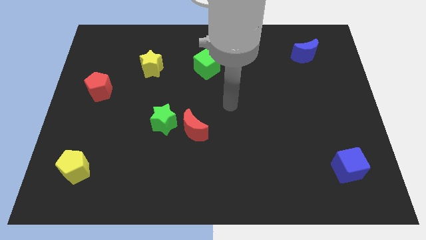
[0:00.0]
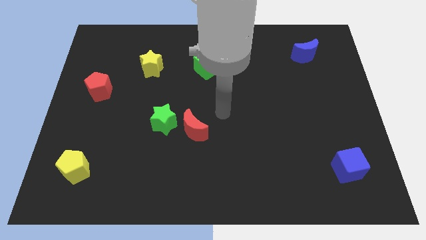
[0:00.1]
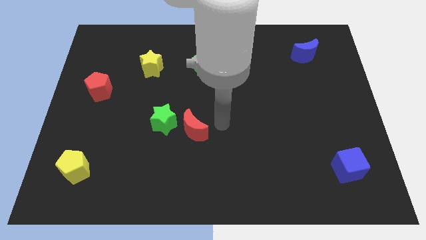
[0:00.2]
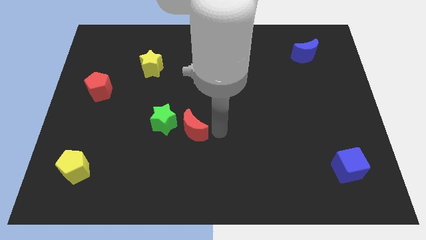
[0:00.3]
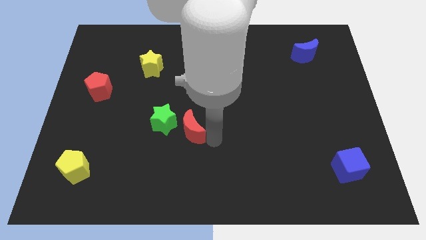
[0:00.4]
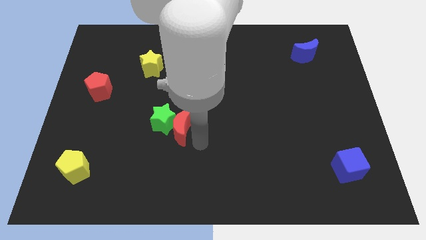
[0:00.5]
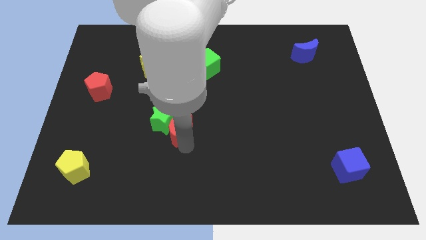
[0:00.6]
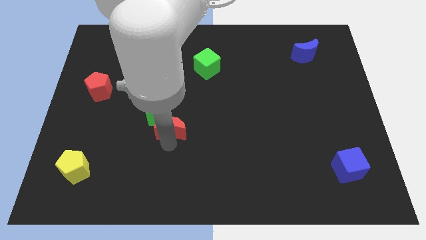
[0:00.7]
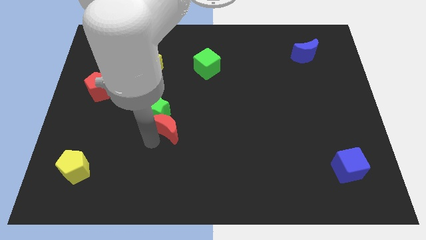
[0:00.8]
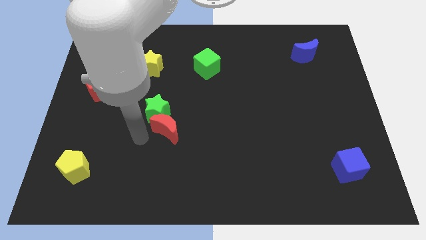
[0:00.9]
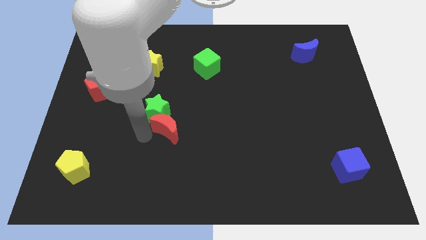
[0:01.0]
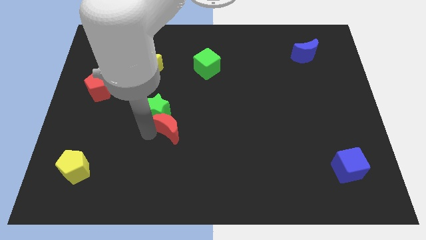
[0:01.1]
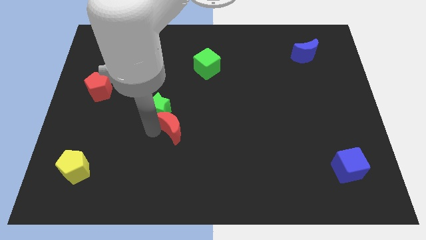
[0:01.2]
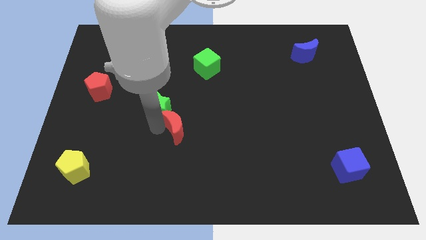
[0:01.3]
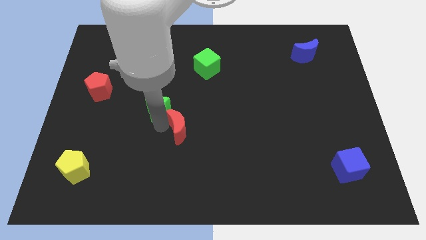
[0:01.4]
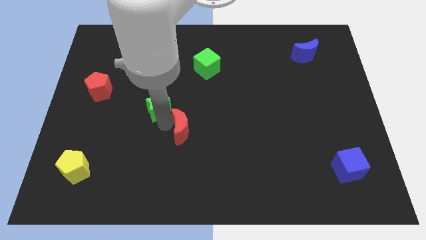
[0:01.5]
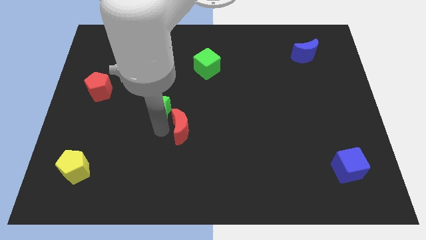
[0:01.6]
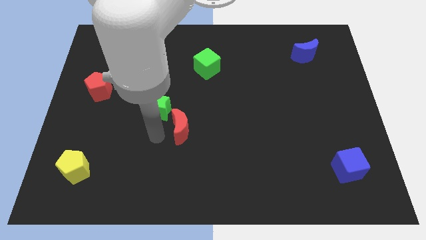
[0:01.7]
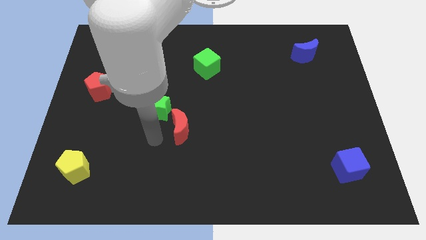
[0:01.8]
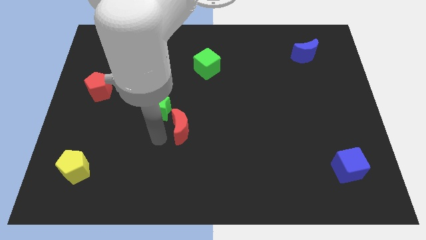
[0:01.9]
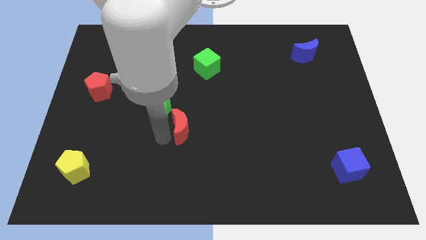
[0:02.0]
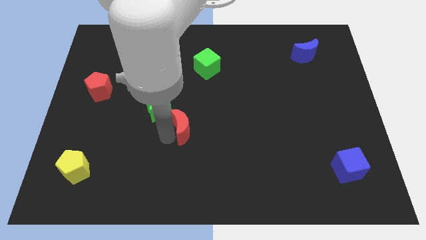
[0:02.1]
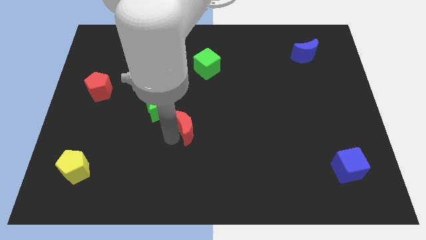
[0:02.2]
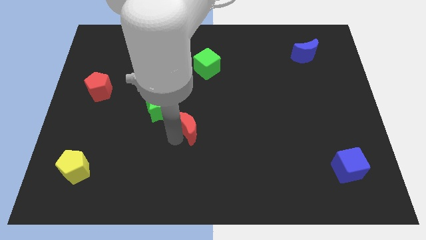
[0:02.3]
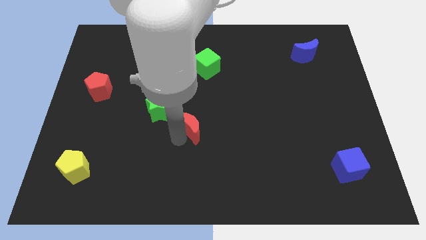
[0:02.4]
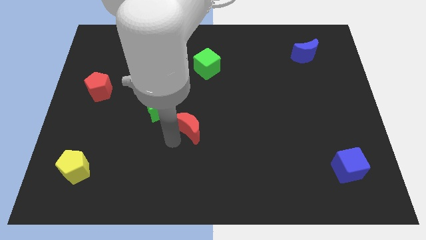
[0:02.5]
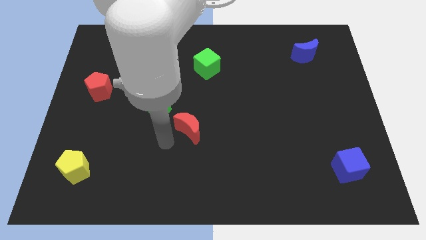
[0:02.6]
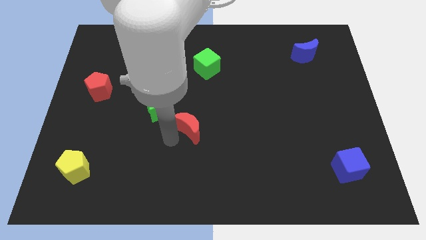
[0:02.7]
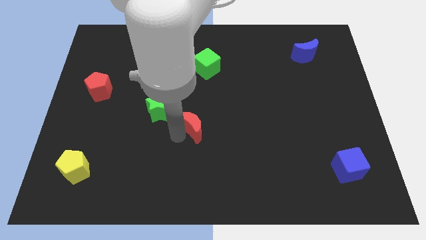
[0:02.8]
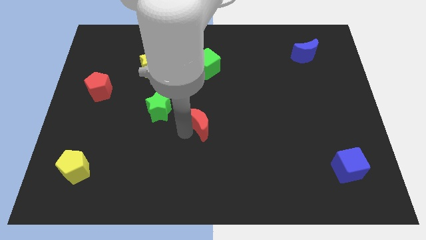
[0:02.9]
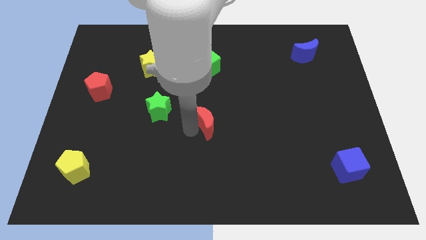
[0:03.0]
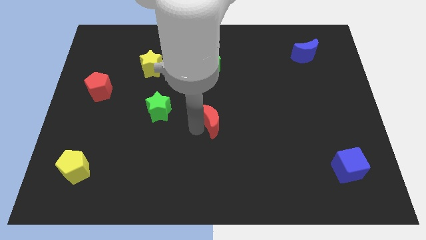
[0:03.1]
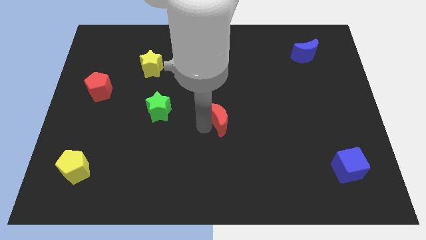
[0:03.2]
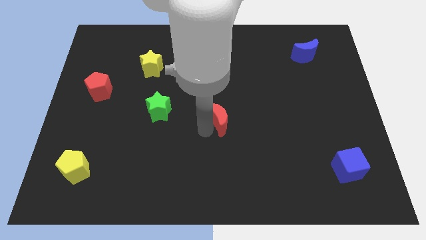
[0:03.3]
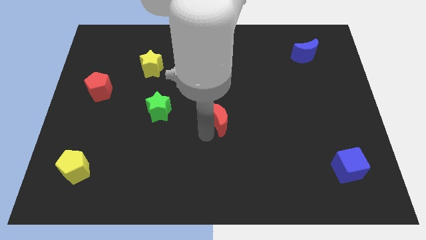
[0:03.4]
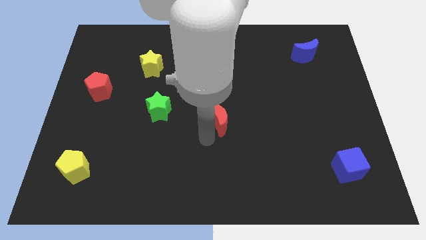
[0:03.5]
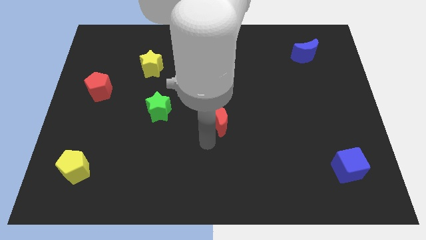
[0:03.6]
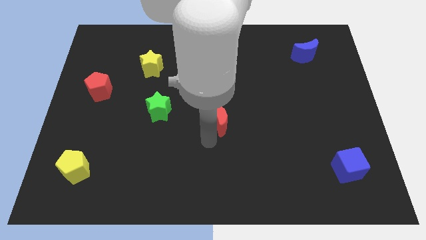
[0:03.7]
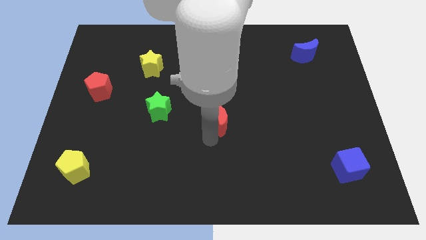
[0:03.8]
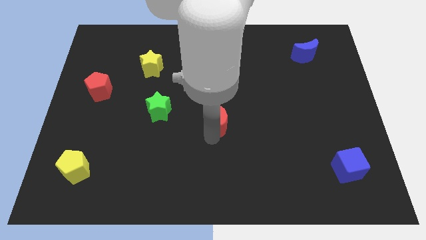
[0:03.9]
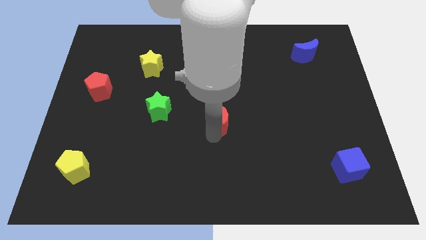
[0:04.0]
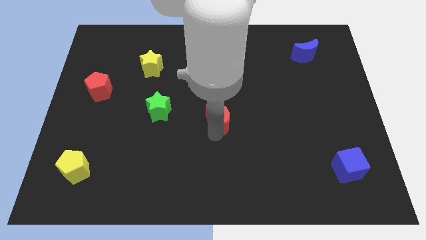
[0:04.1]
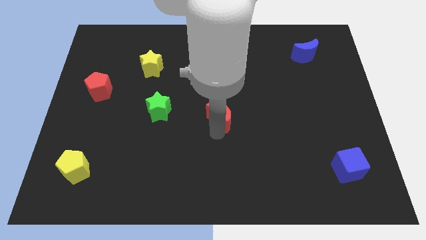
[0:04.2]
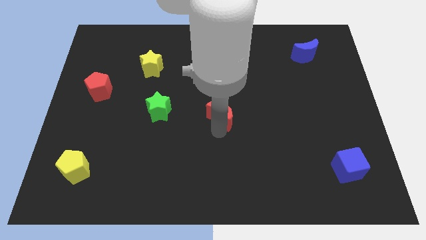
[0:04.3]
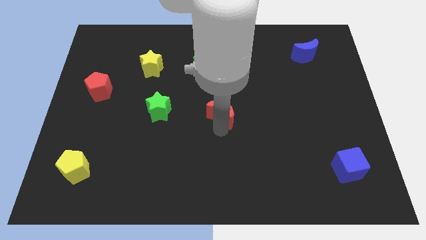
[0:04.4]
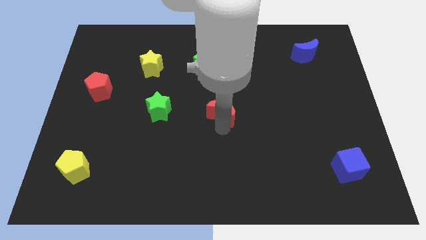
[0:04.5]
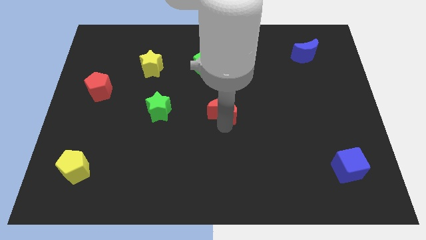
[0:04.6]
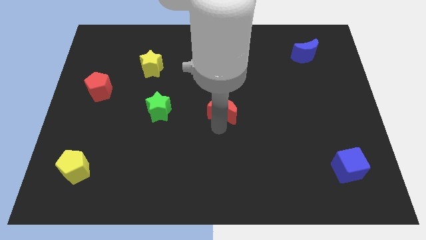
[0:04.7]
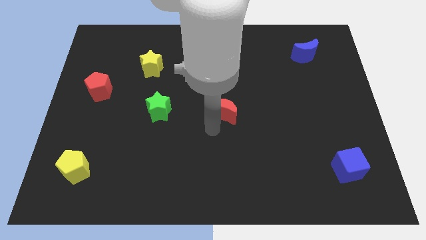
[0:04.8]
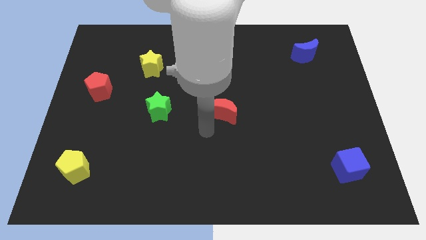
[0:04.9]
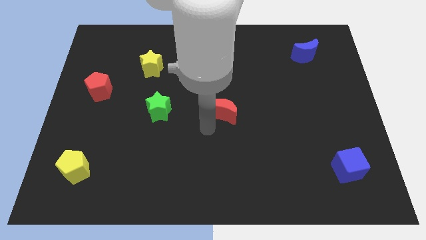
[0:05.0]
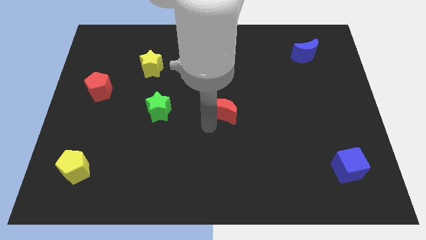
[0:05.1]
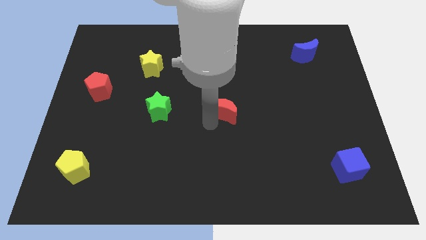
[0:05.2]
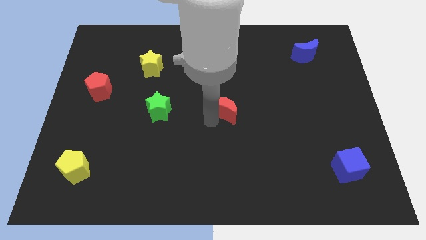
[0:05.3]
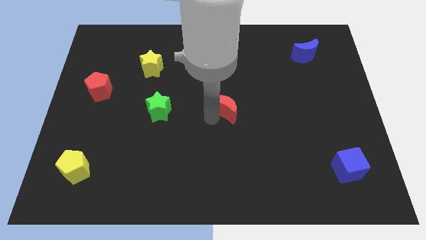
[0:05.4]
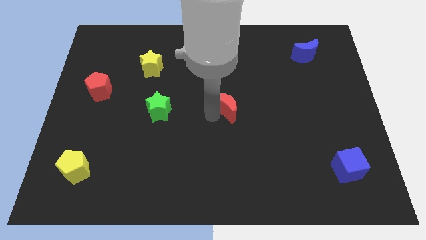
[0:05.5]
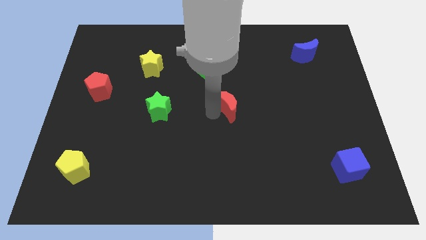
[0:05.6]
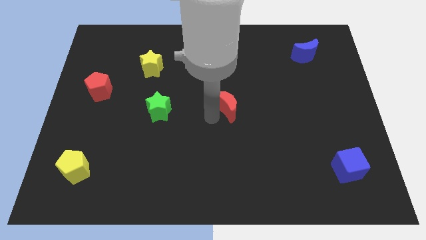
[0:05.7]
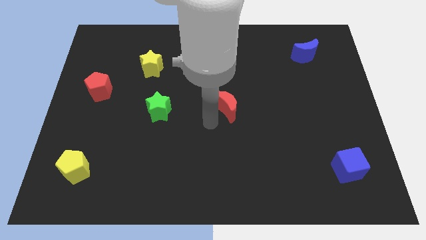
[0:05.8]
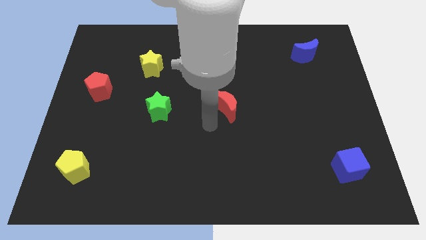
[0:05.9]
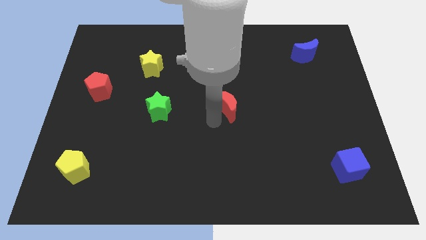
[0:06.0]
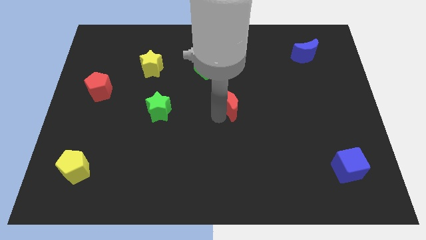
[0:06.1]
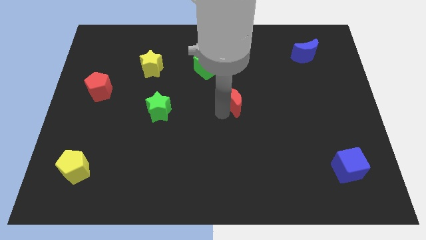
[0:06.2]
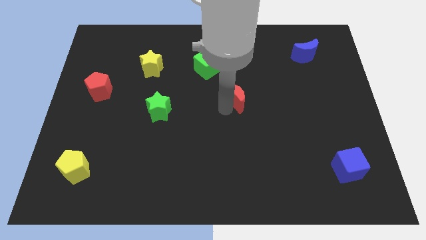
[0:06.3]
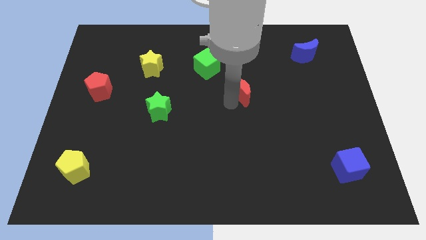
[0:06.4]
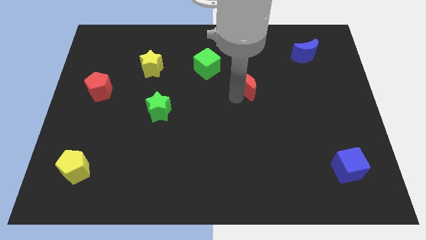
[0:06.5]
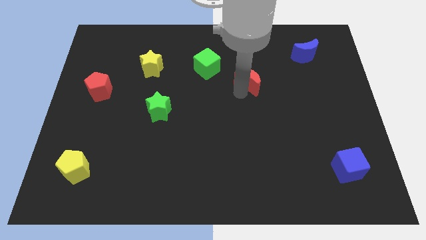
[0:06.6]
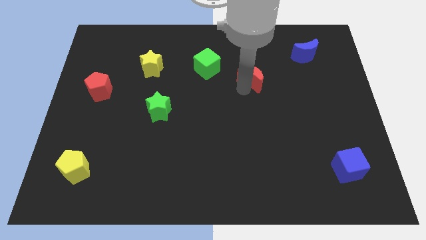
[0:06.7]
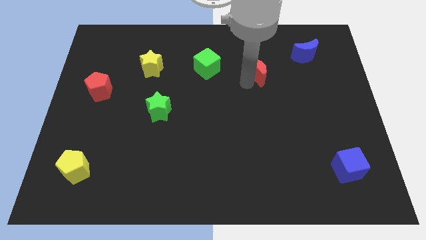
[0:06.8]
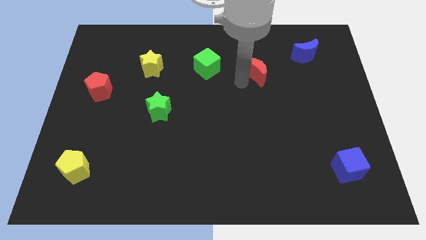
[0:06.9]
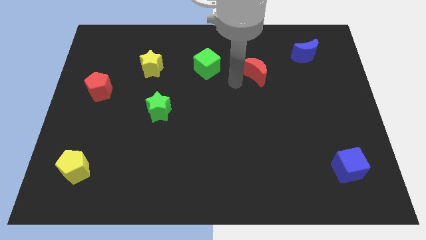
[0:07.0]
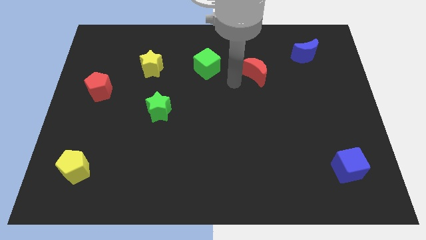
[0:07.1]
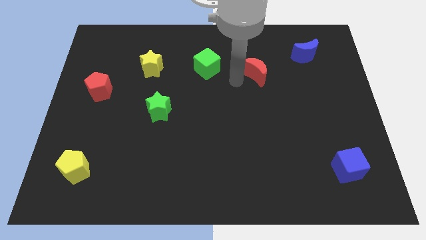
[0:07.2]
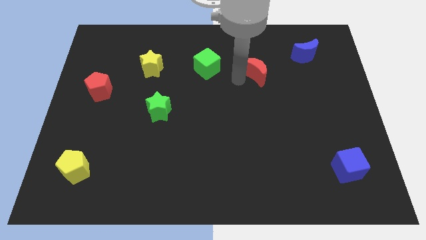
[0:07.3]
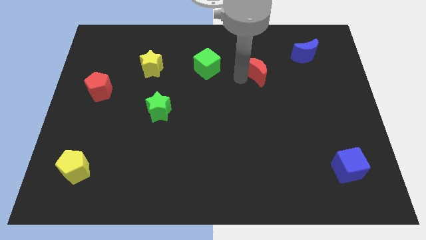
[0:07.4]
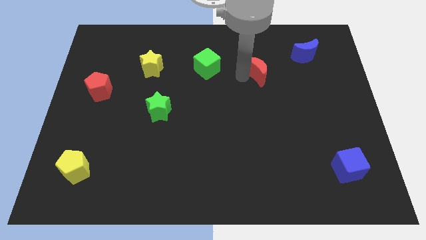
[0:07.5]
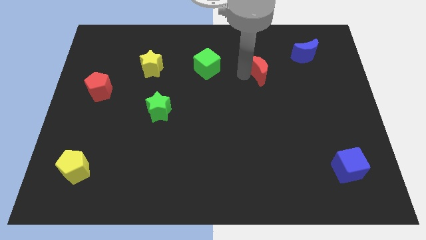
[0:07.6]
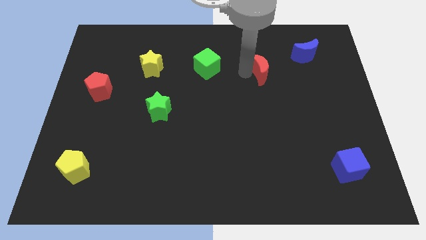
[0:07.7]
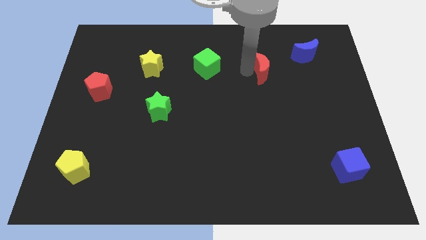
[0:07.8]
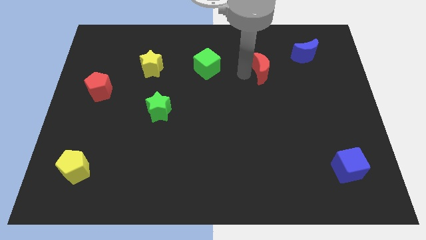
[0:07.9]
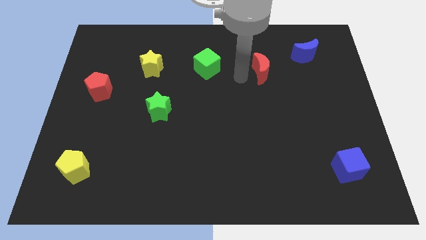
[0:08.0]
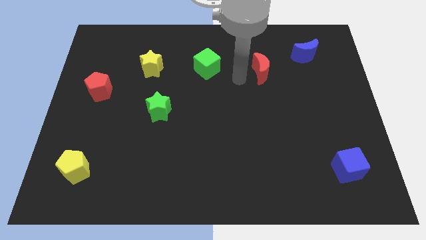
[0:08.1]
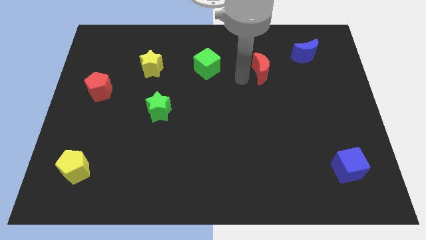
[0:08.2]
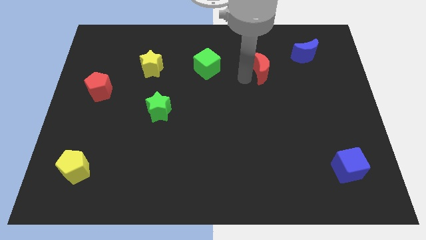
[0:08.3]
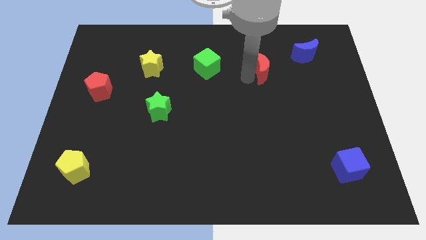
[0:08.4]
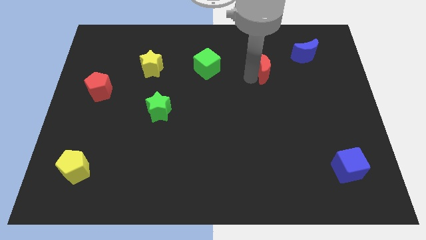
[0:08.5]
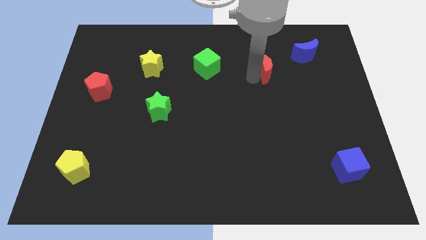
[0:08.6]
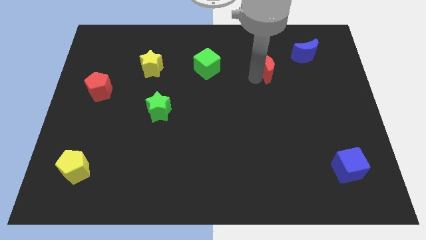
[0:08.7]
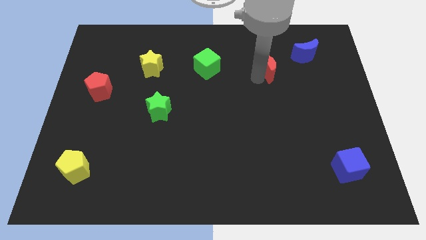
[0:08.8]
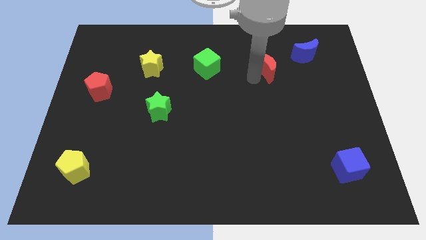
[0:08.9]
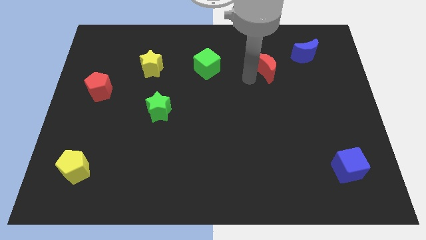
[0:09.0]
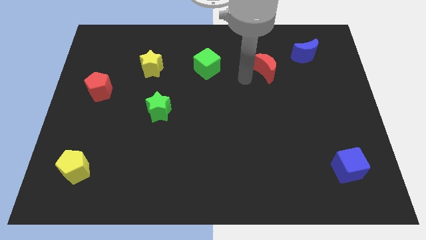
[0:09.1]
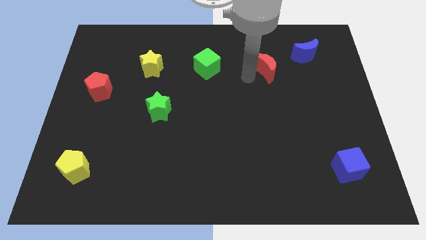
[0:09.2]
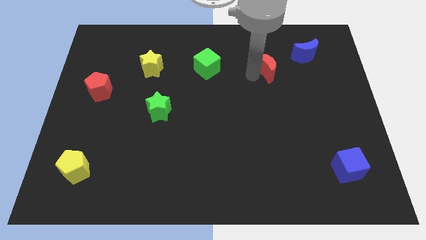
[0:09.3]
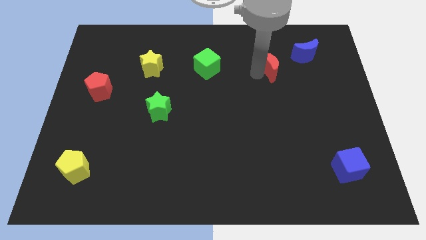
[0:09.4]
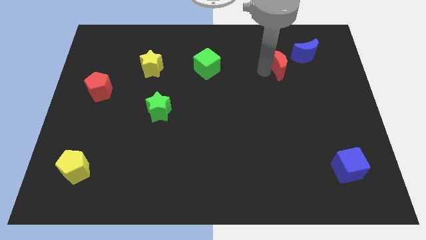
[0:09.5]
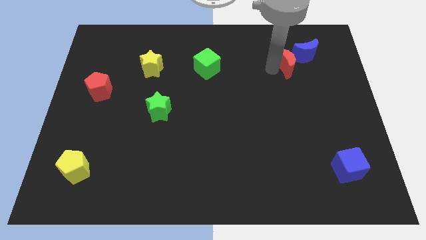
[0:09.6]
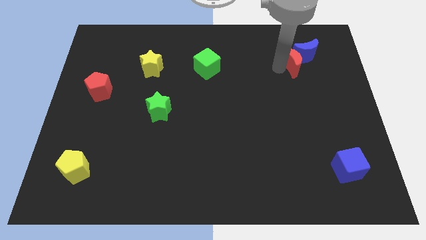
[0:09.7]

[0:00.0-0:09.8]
slide the red moon to the blue moon
